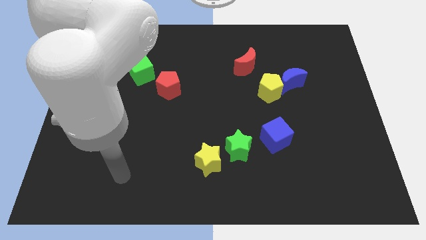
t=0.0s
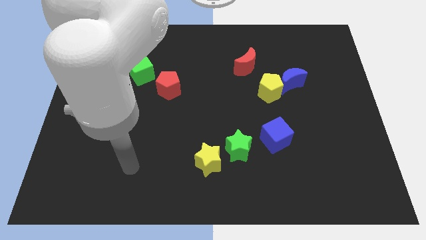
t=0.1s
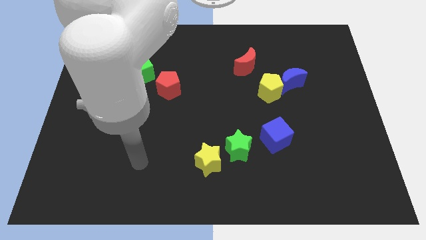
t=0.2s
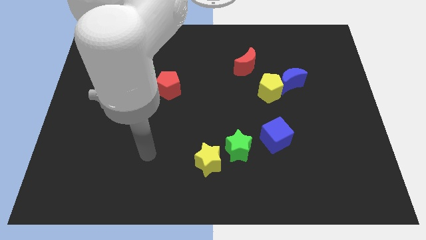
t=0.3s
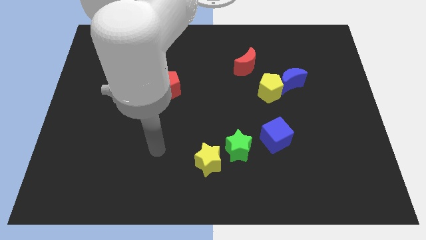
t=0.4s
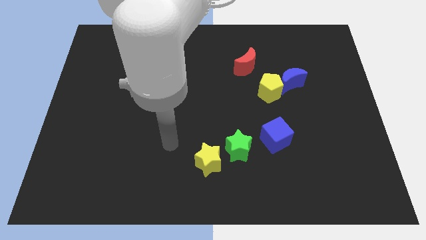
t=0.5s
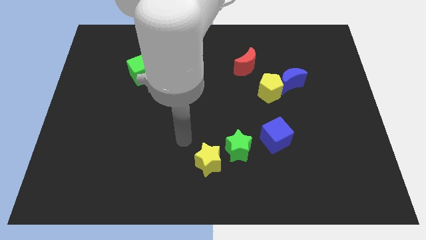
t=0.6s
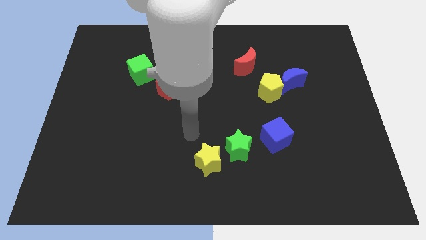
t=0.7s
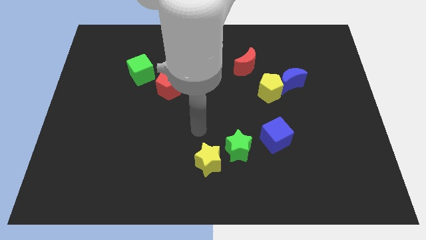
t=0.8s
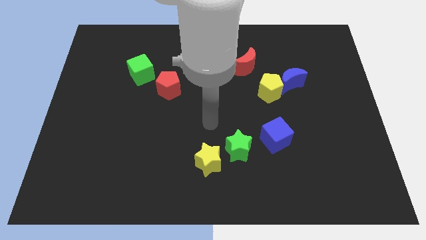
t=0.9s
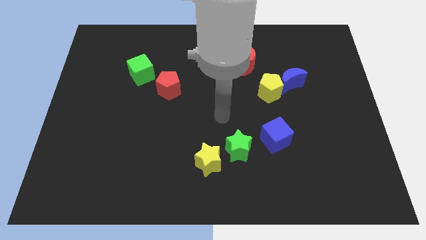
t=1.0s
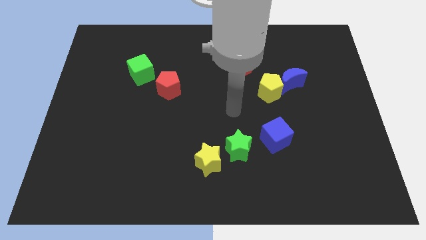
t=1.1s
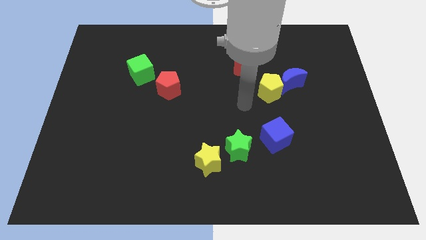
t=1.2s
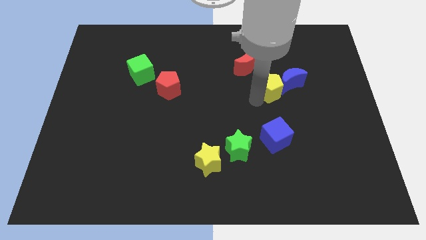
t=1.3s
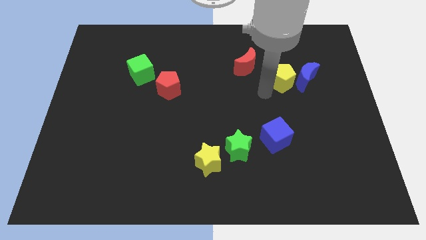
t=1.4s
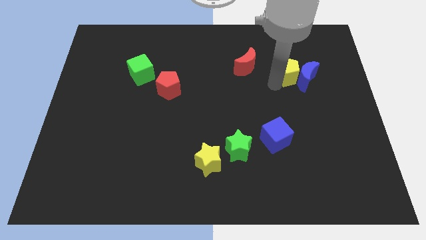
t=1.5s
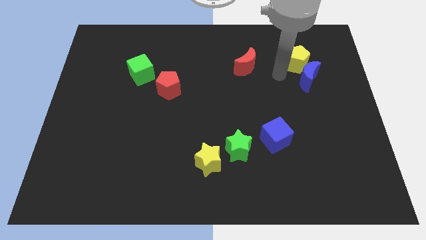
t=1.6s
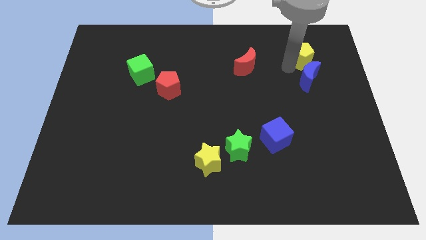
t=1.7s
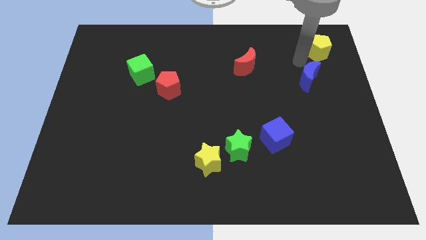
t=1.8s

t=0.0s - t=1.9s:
separate the blue moon from the yellow pentagon

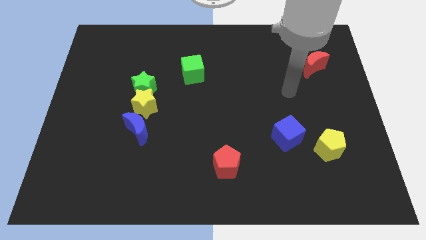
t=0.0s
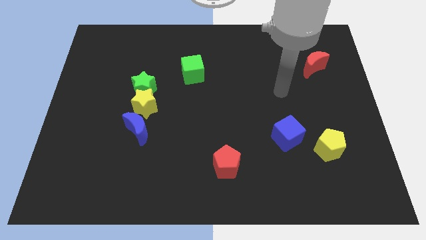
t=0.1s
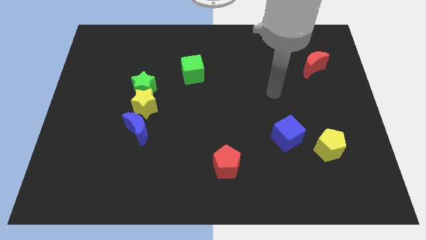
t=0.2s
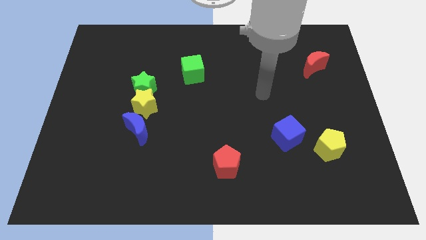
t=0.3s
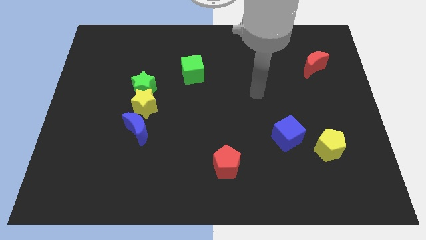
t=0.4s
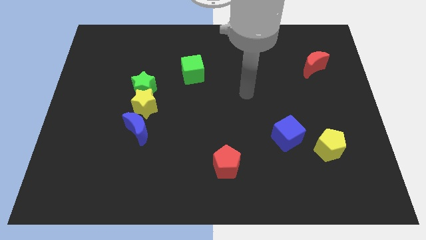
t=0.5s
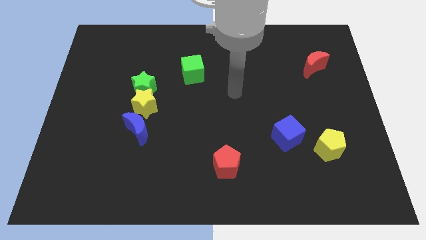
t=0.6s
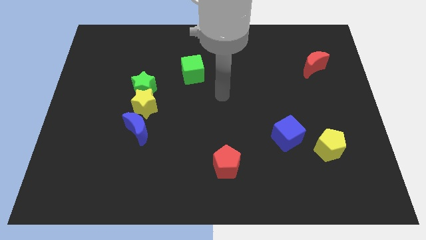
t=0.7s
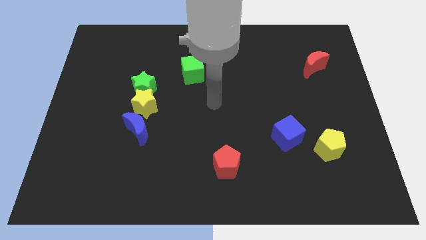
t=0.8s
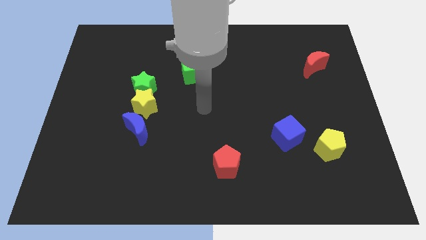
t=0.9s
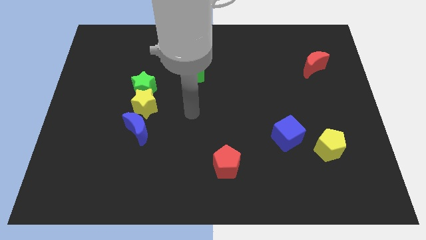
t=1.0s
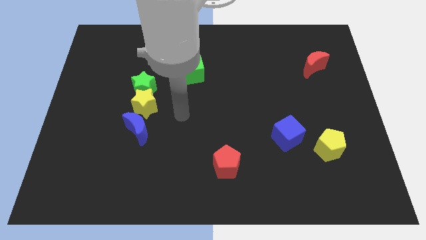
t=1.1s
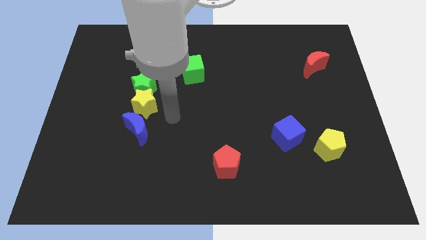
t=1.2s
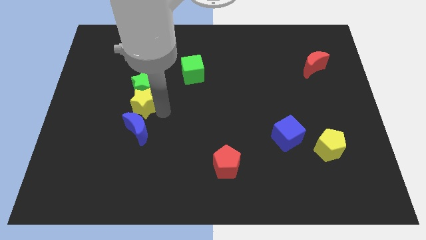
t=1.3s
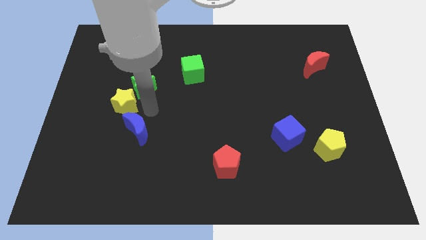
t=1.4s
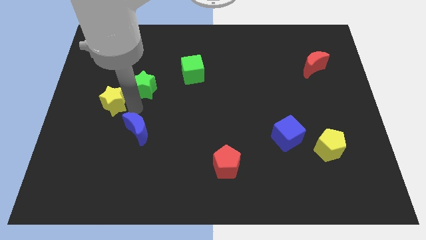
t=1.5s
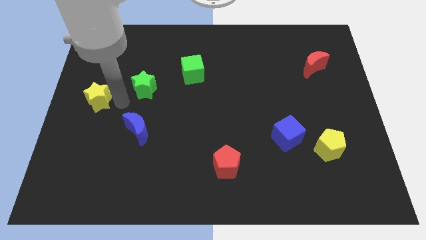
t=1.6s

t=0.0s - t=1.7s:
move the green star away from the yellow star

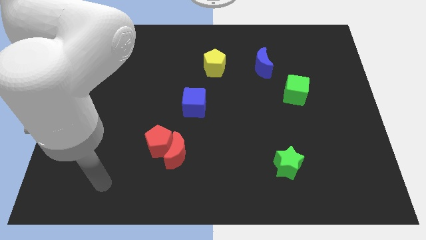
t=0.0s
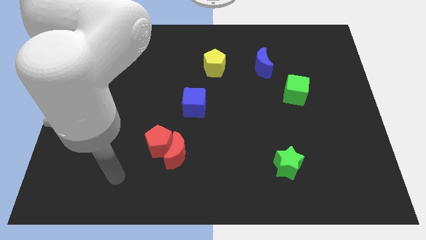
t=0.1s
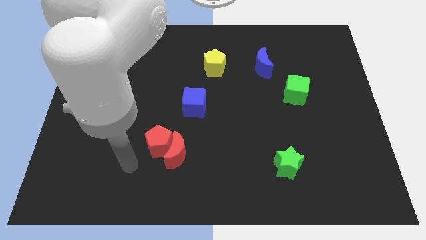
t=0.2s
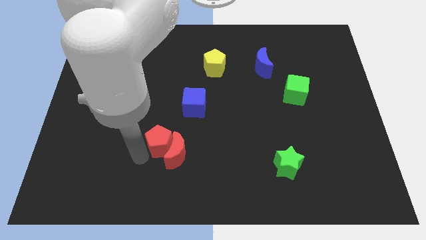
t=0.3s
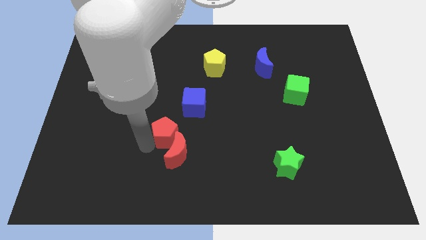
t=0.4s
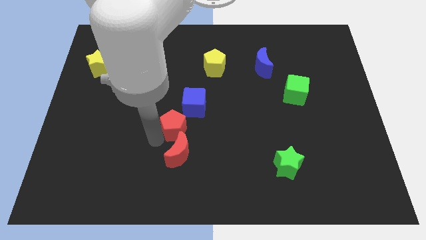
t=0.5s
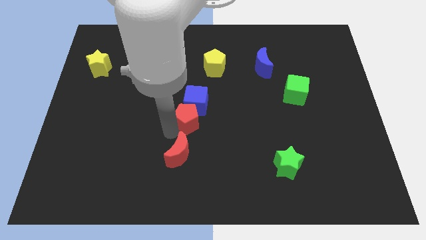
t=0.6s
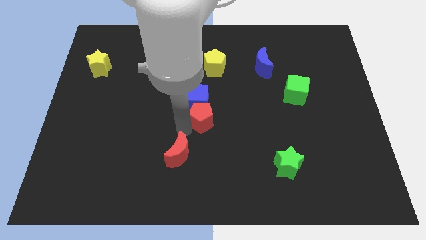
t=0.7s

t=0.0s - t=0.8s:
separate the red moon from the red pentagon

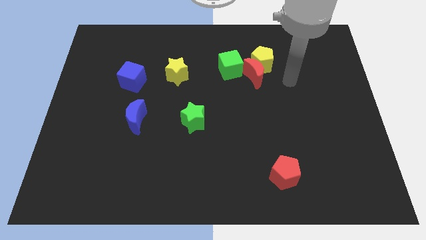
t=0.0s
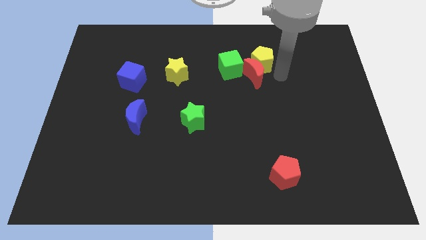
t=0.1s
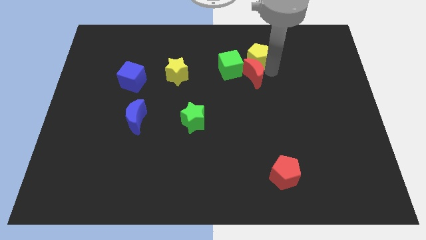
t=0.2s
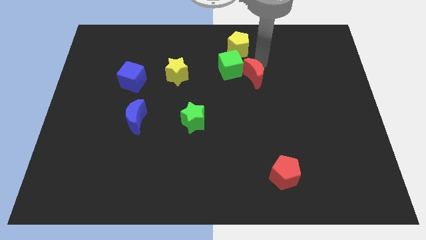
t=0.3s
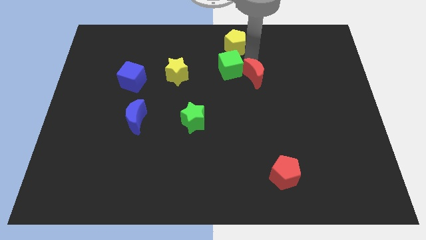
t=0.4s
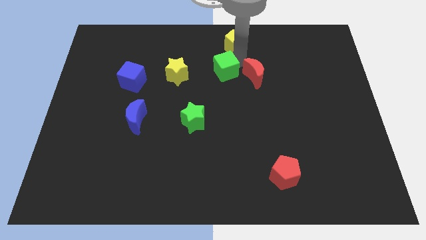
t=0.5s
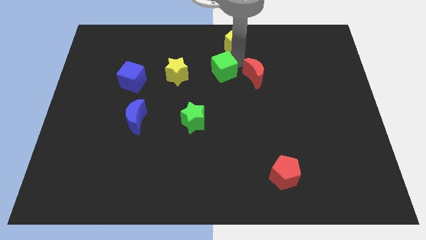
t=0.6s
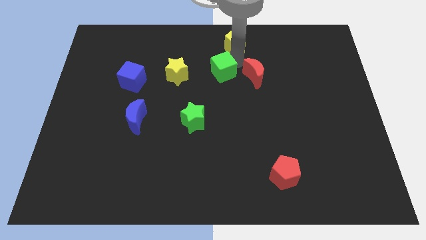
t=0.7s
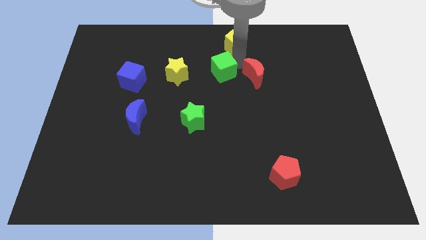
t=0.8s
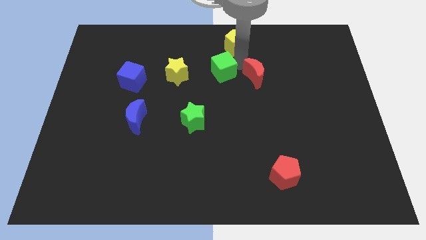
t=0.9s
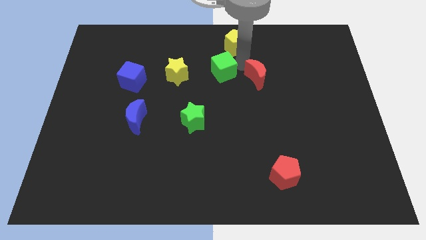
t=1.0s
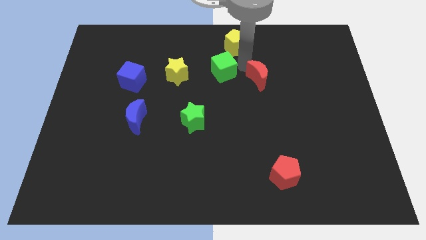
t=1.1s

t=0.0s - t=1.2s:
move the red moon away from the yellow pentagon and green cube

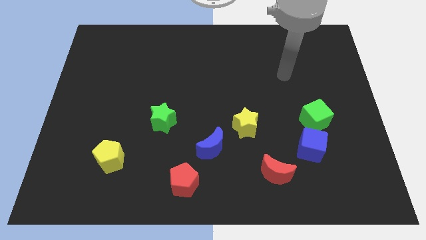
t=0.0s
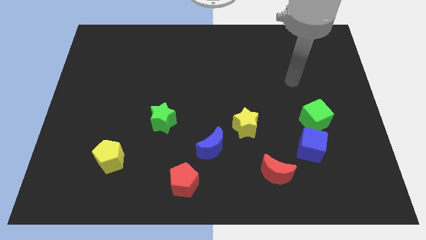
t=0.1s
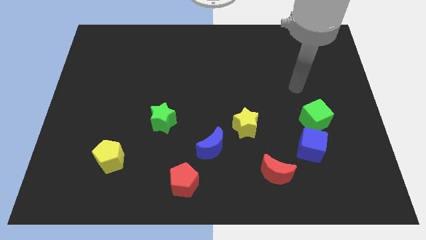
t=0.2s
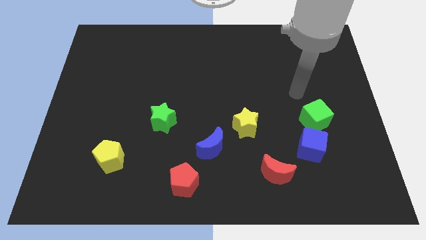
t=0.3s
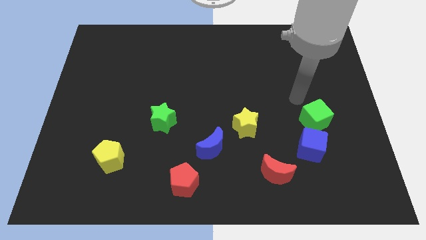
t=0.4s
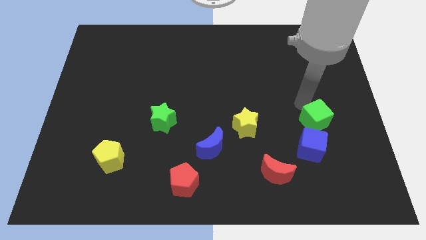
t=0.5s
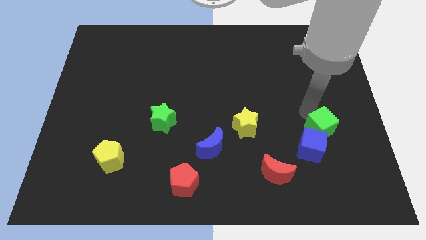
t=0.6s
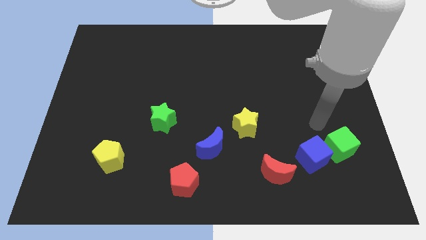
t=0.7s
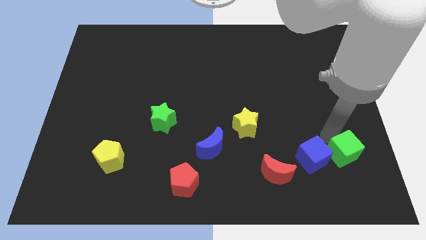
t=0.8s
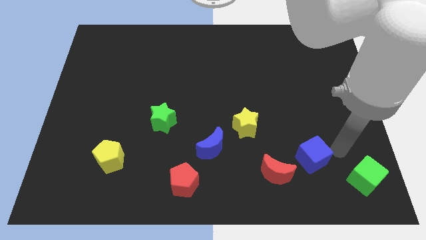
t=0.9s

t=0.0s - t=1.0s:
pull the blue cube apart from the green cube

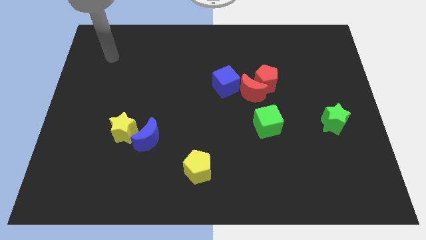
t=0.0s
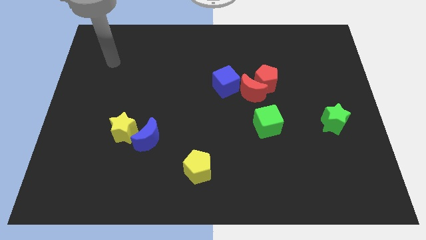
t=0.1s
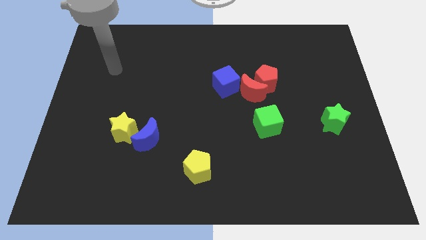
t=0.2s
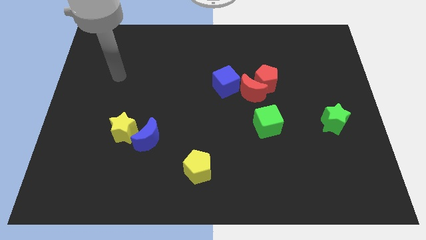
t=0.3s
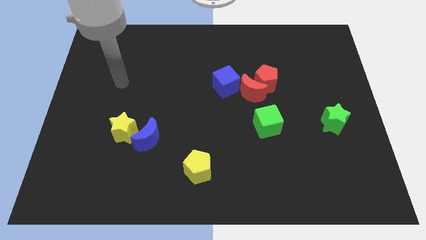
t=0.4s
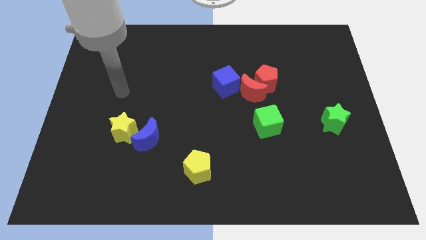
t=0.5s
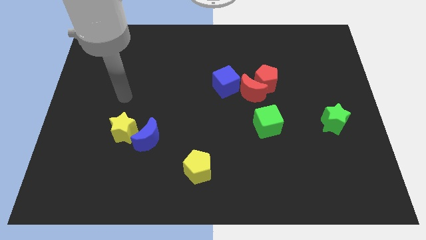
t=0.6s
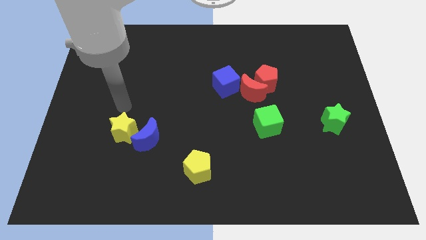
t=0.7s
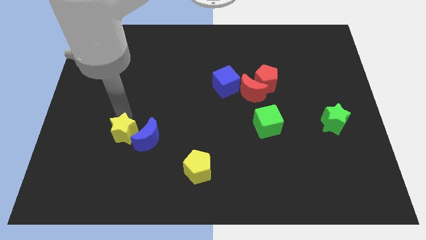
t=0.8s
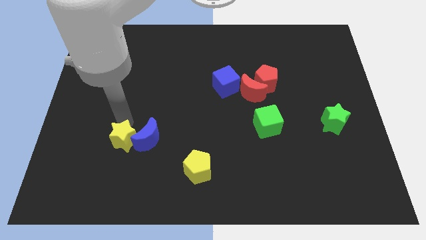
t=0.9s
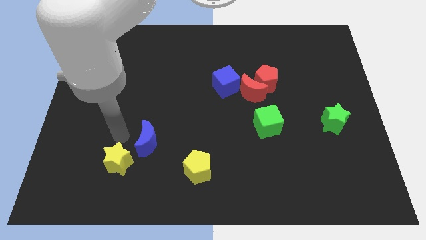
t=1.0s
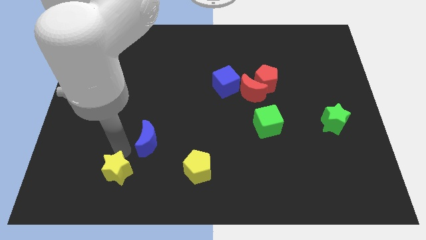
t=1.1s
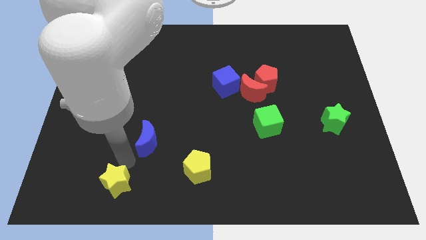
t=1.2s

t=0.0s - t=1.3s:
move the blue moon away from the yellow star

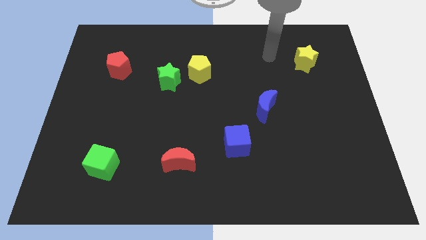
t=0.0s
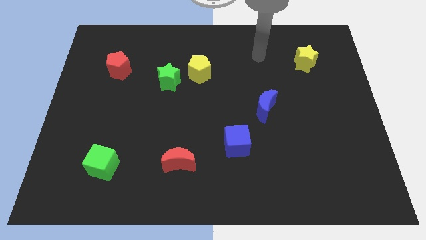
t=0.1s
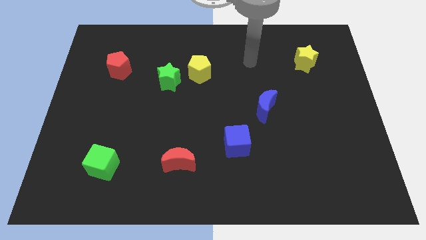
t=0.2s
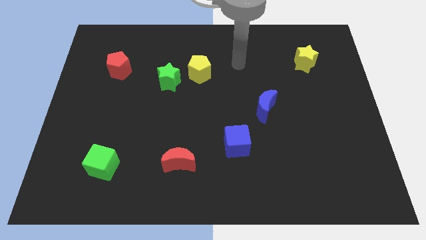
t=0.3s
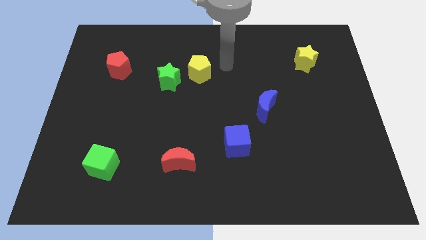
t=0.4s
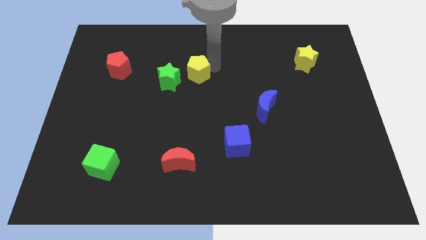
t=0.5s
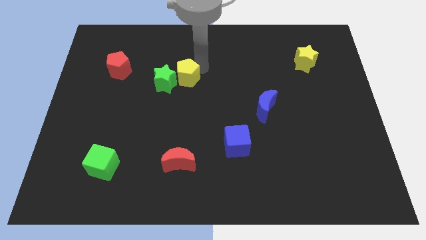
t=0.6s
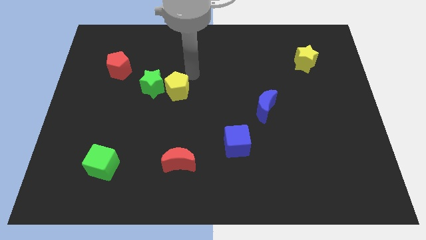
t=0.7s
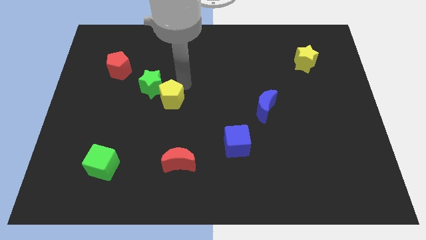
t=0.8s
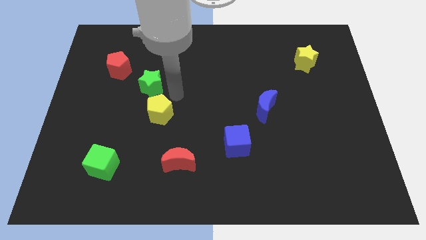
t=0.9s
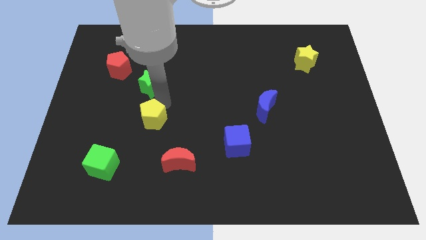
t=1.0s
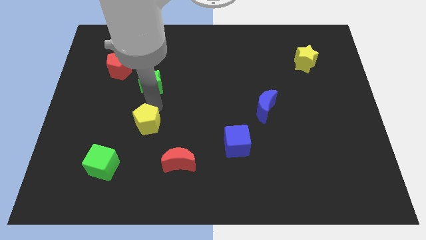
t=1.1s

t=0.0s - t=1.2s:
move the green star away from the yellow pentagon

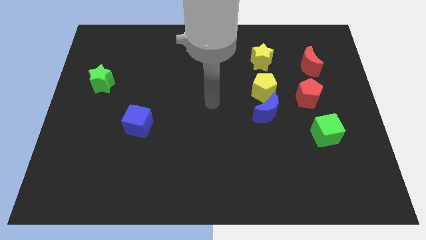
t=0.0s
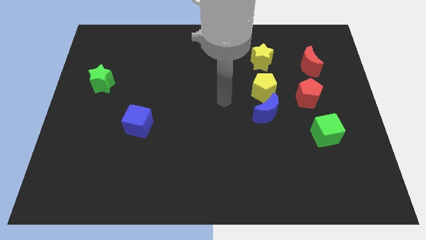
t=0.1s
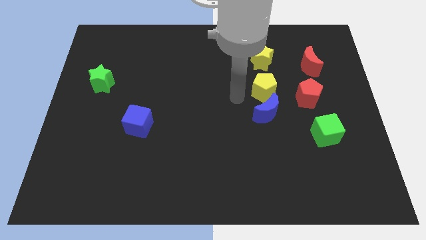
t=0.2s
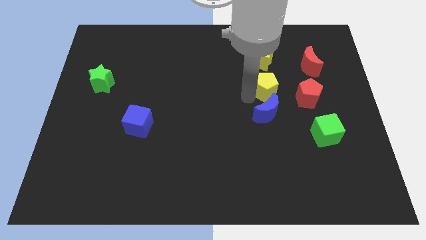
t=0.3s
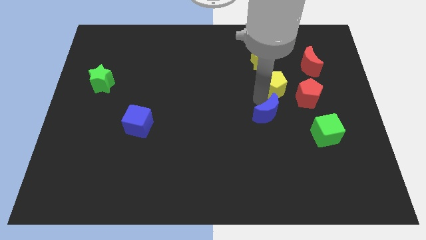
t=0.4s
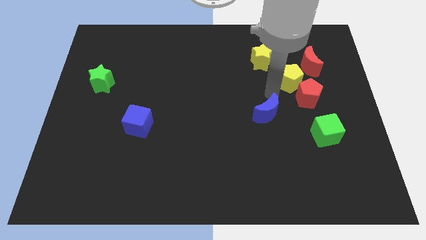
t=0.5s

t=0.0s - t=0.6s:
pull the blue moon apart from the yellow pentagon
